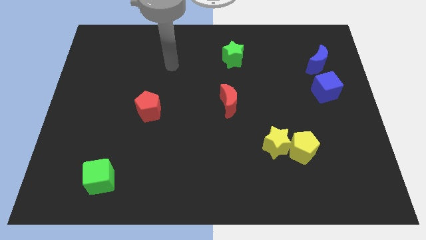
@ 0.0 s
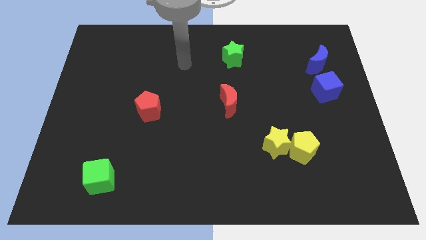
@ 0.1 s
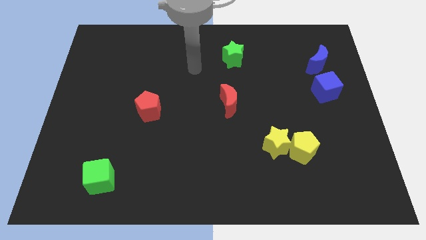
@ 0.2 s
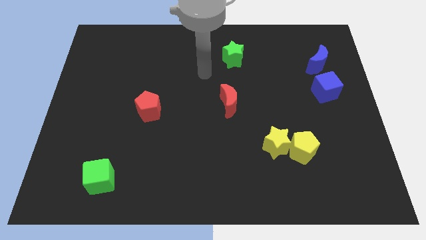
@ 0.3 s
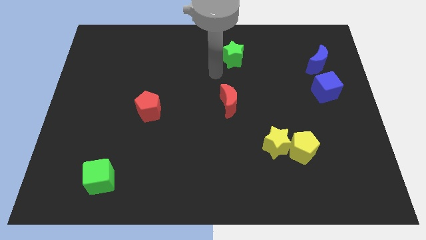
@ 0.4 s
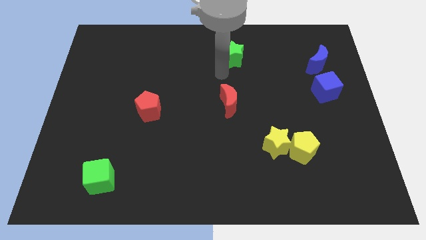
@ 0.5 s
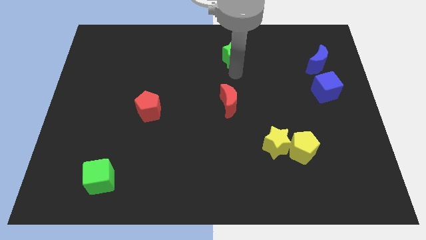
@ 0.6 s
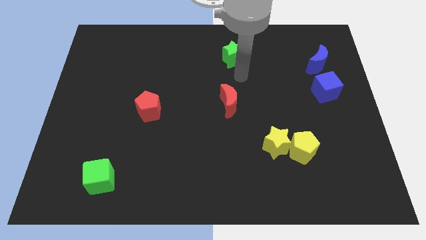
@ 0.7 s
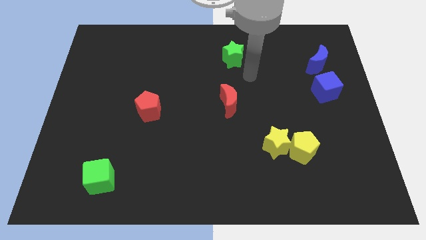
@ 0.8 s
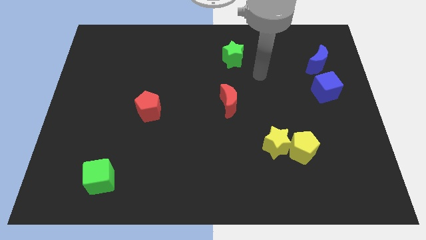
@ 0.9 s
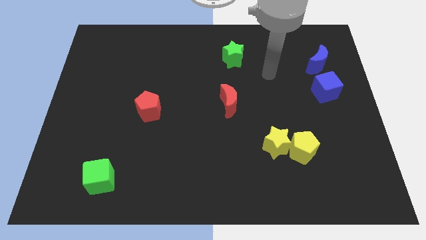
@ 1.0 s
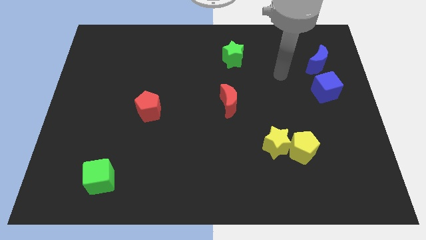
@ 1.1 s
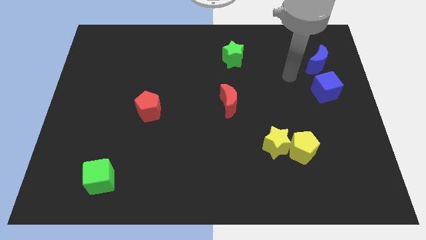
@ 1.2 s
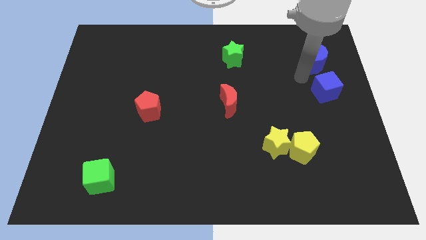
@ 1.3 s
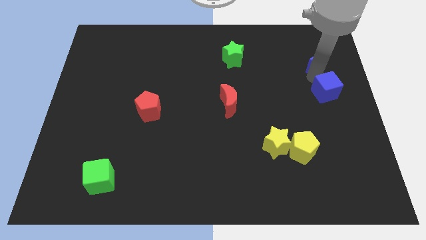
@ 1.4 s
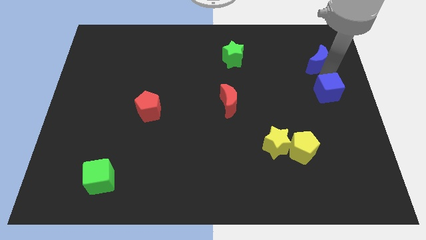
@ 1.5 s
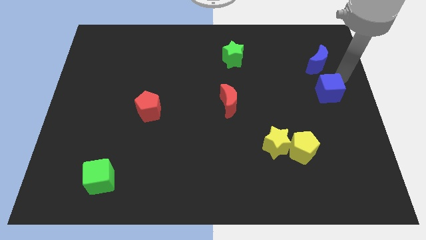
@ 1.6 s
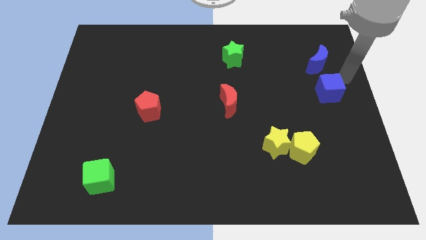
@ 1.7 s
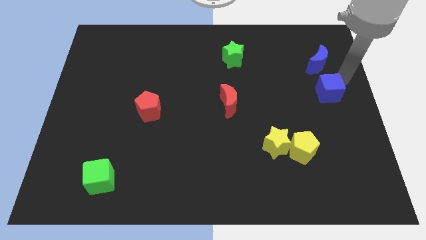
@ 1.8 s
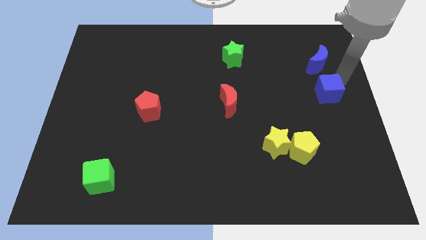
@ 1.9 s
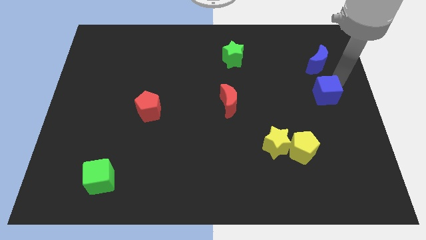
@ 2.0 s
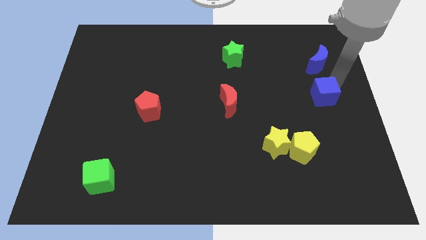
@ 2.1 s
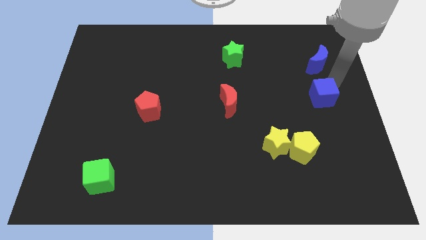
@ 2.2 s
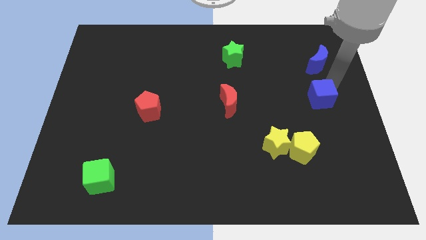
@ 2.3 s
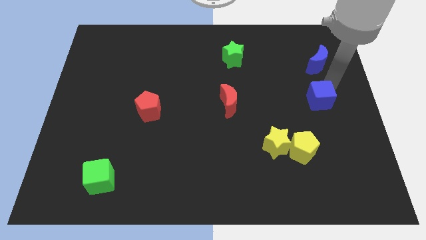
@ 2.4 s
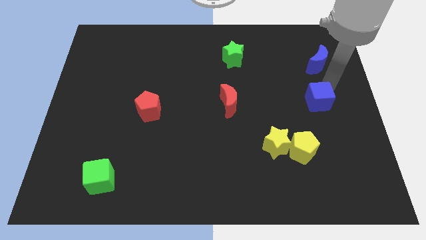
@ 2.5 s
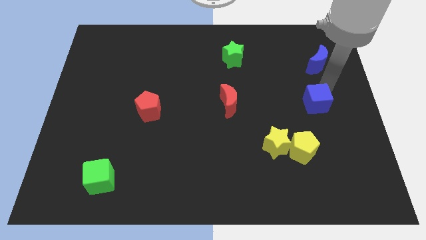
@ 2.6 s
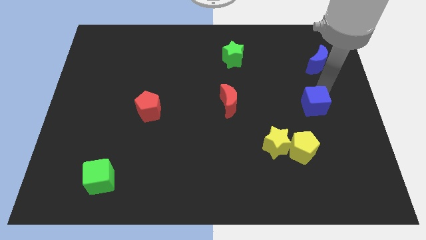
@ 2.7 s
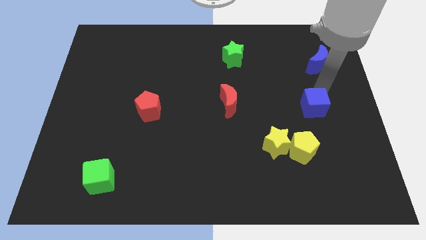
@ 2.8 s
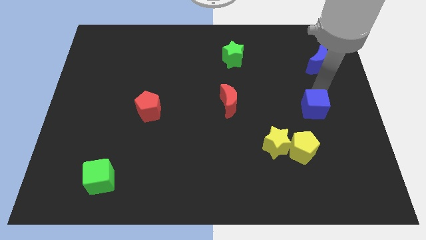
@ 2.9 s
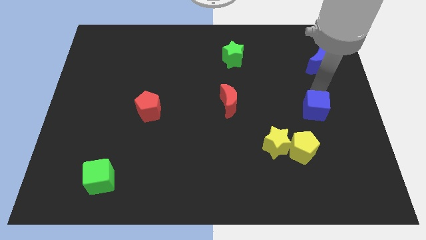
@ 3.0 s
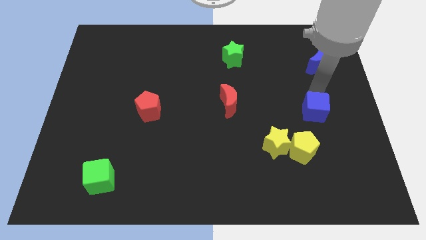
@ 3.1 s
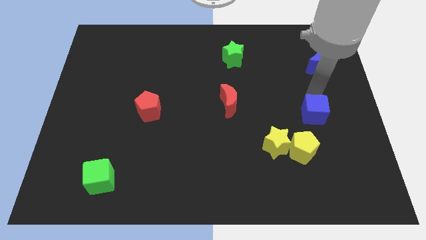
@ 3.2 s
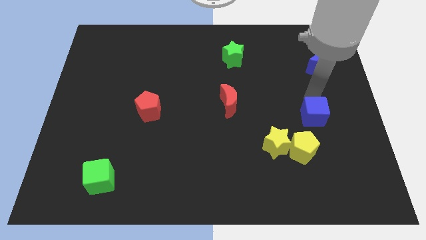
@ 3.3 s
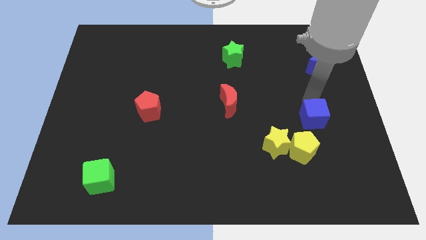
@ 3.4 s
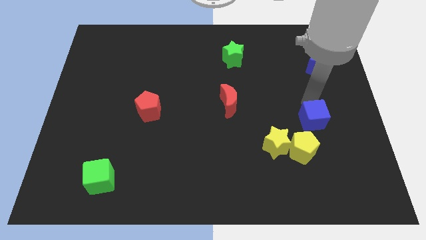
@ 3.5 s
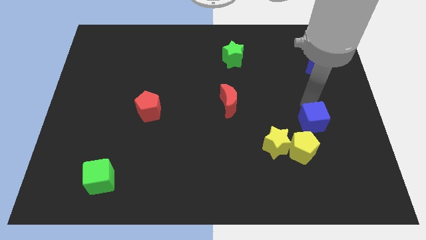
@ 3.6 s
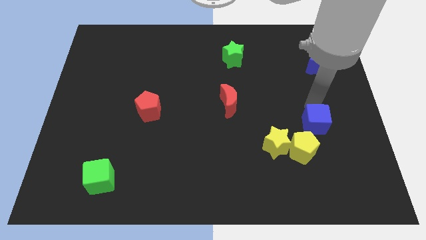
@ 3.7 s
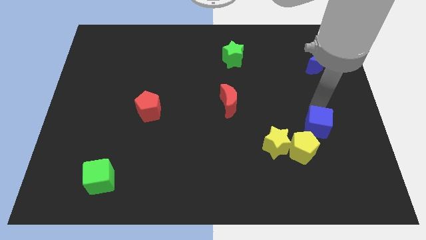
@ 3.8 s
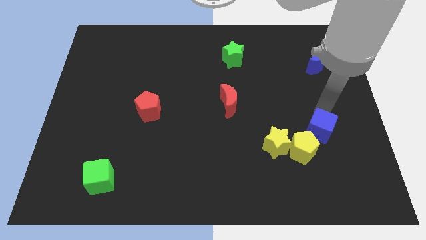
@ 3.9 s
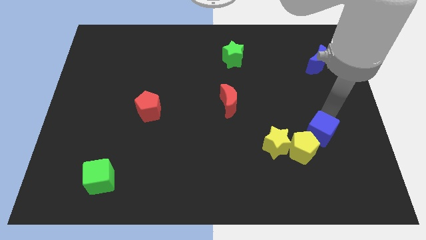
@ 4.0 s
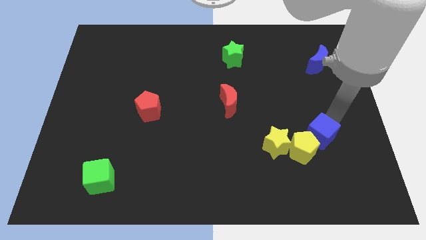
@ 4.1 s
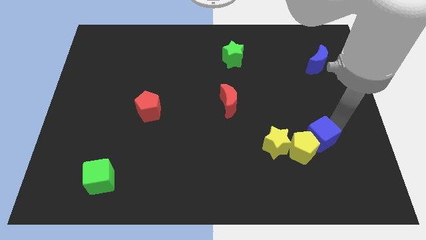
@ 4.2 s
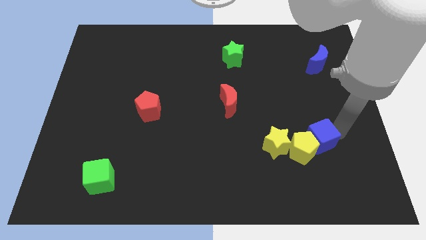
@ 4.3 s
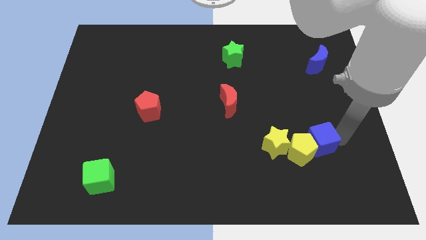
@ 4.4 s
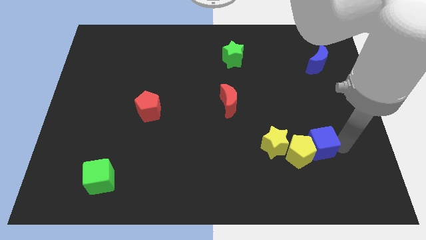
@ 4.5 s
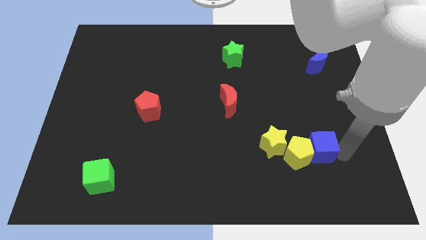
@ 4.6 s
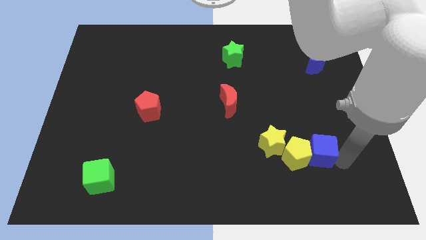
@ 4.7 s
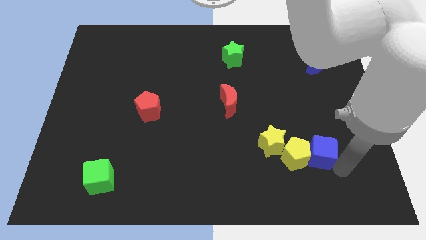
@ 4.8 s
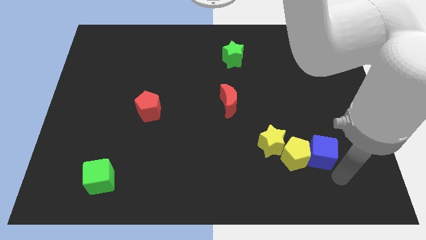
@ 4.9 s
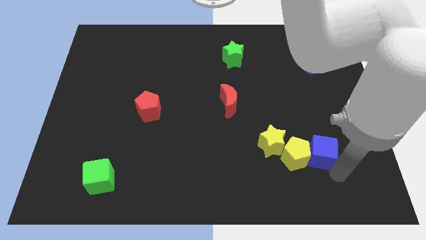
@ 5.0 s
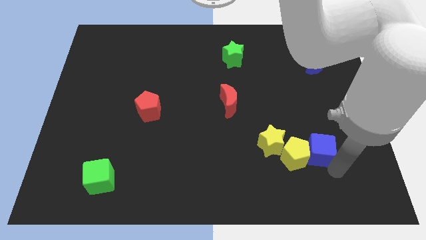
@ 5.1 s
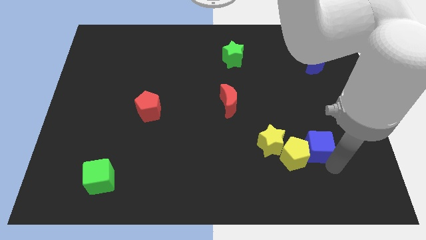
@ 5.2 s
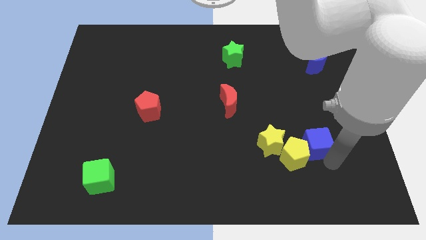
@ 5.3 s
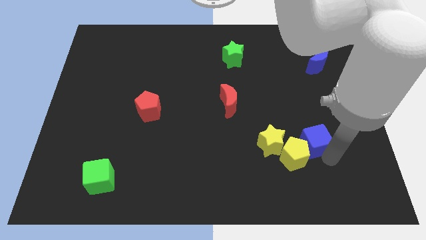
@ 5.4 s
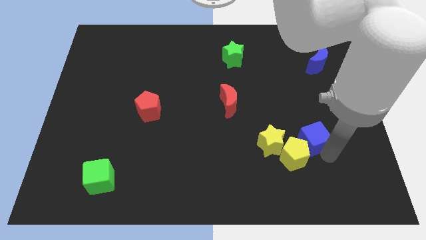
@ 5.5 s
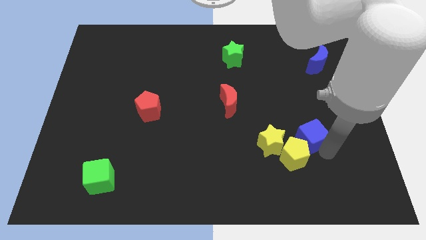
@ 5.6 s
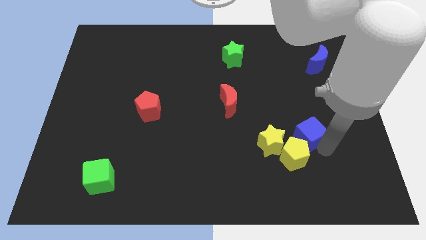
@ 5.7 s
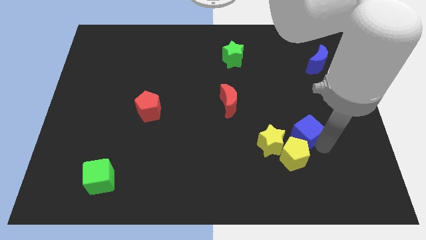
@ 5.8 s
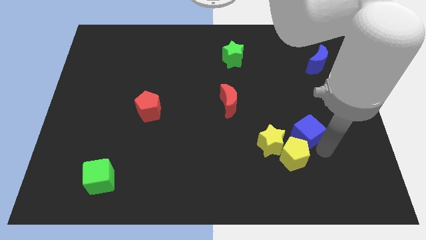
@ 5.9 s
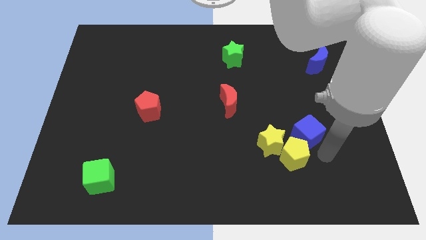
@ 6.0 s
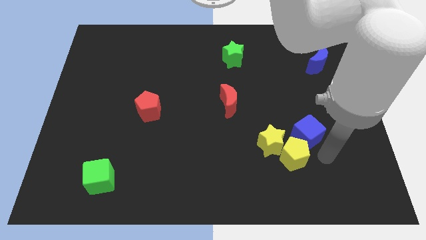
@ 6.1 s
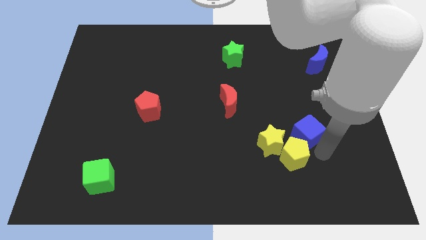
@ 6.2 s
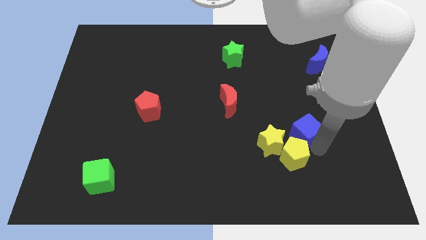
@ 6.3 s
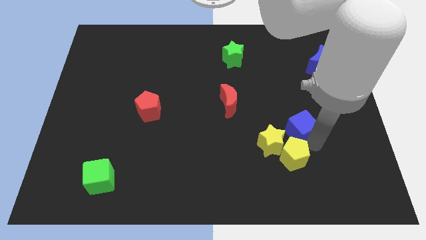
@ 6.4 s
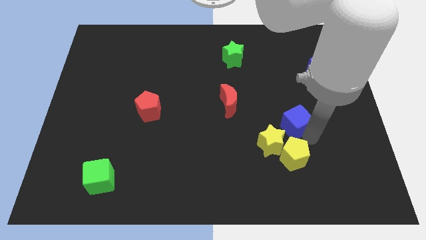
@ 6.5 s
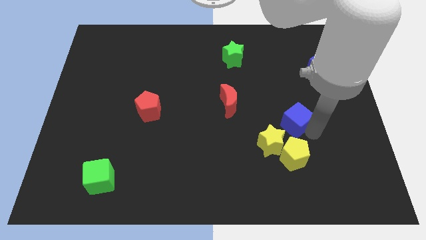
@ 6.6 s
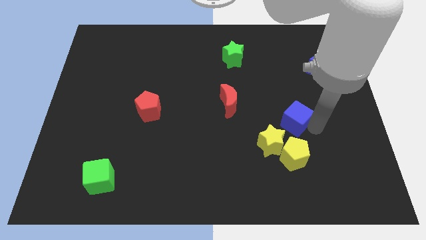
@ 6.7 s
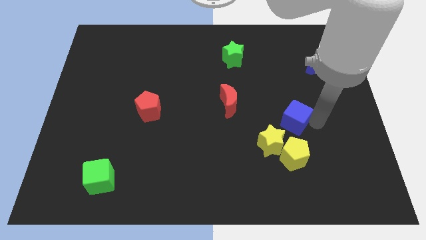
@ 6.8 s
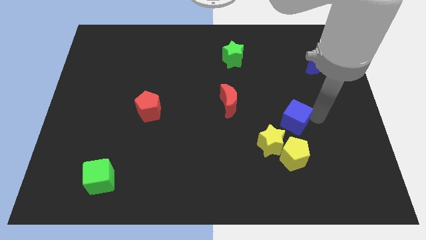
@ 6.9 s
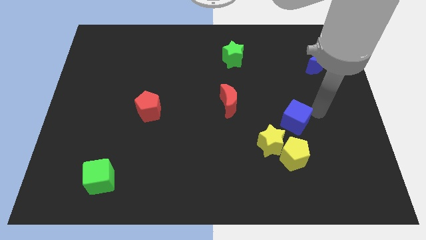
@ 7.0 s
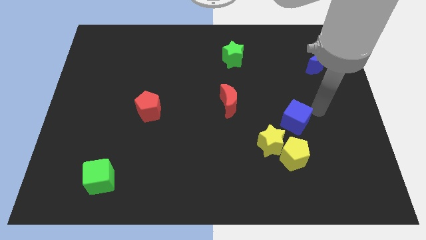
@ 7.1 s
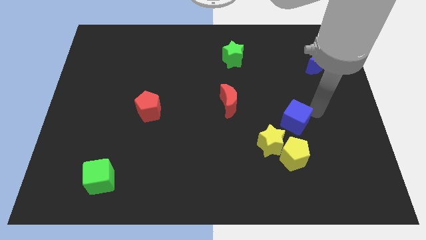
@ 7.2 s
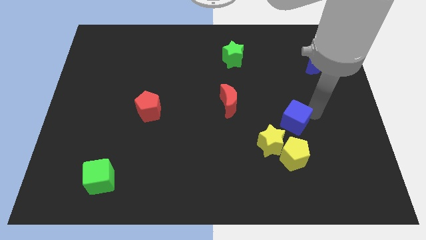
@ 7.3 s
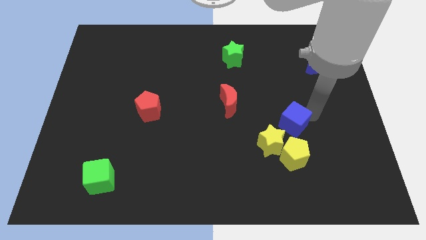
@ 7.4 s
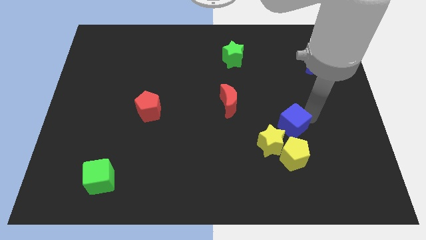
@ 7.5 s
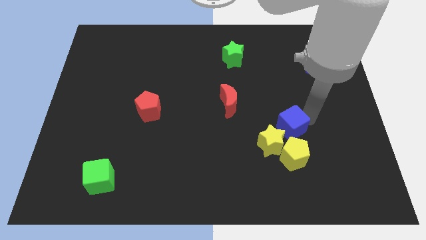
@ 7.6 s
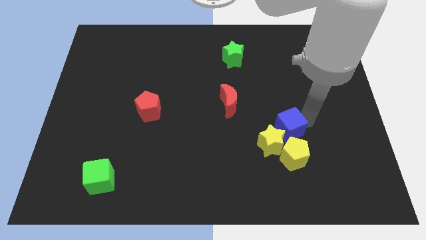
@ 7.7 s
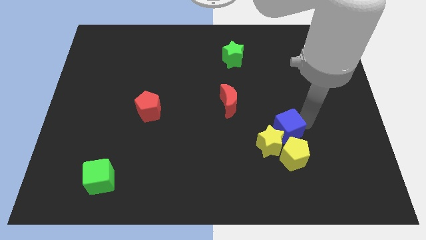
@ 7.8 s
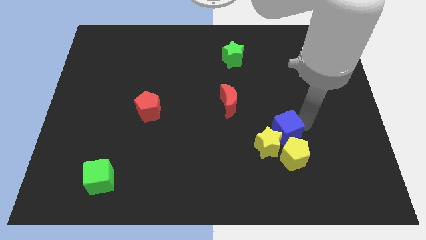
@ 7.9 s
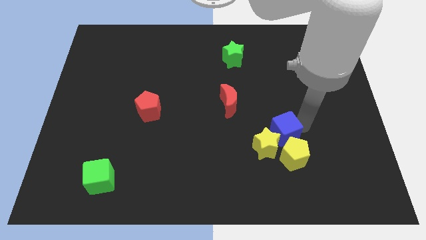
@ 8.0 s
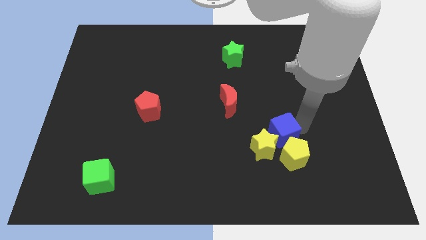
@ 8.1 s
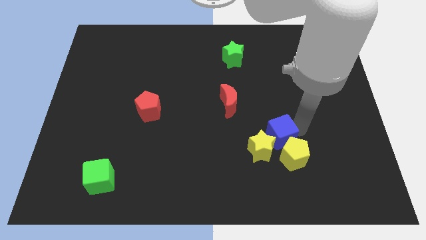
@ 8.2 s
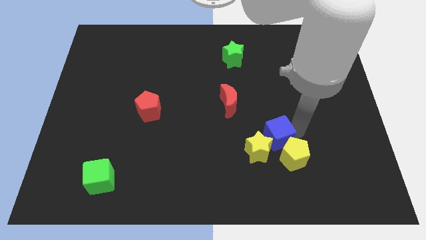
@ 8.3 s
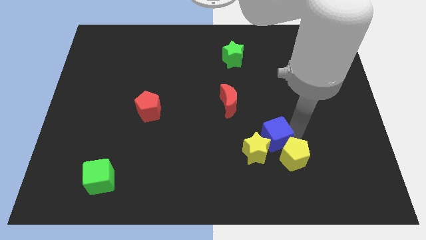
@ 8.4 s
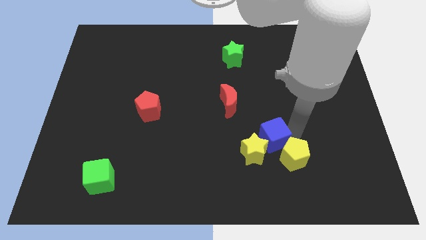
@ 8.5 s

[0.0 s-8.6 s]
push the blue cube down and to the left diagonally
